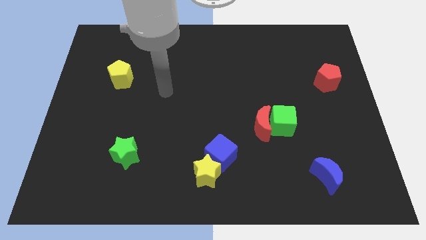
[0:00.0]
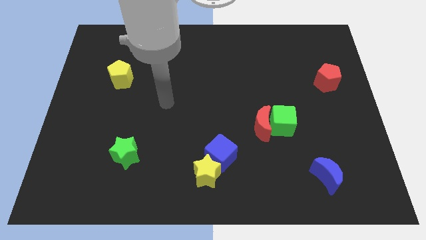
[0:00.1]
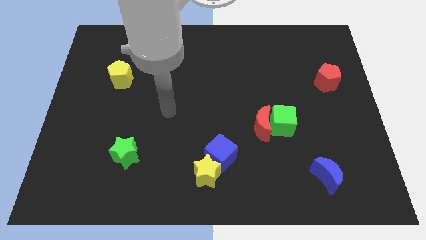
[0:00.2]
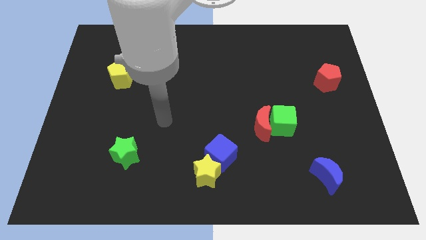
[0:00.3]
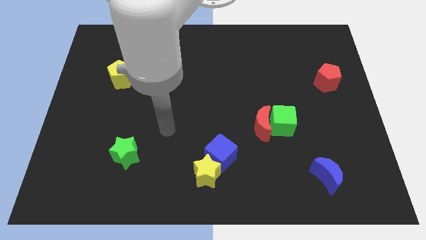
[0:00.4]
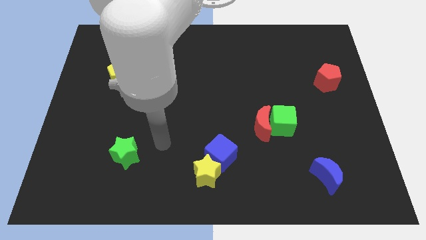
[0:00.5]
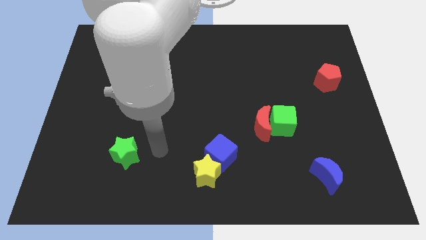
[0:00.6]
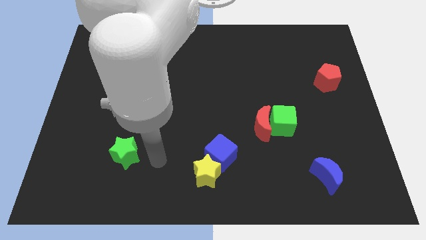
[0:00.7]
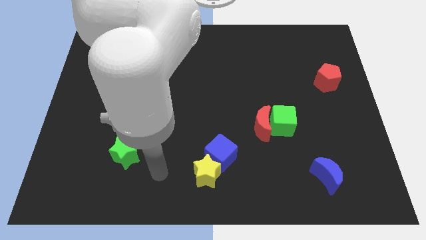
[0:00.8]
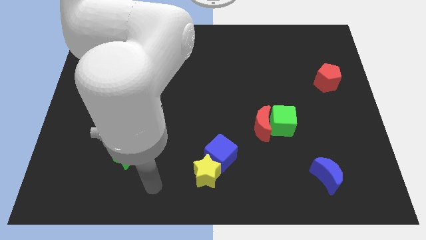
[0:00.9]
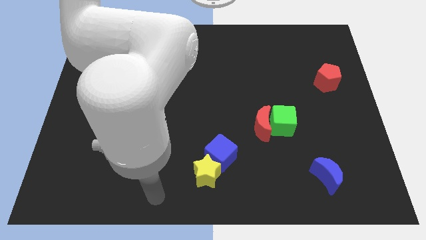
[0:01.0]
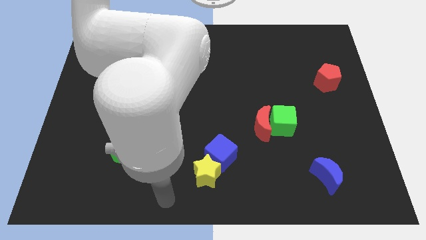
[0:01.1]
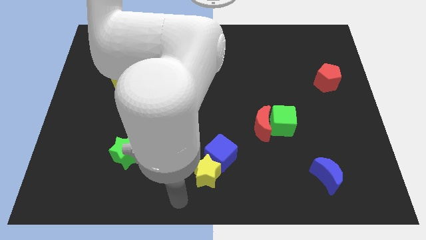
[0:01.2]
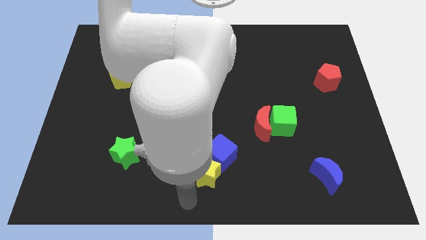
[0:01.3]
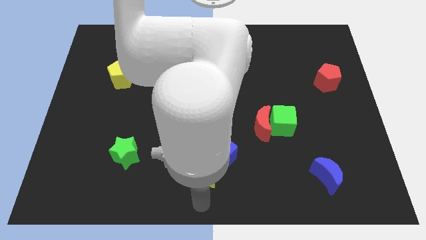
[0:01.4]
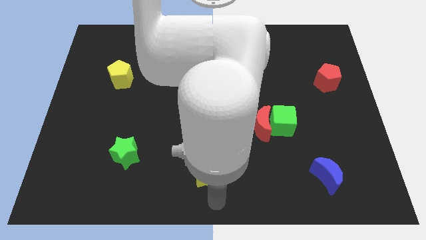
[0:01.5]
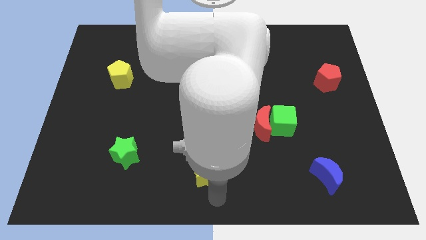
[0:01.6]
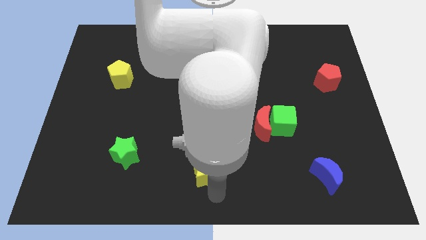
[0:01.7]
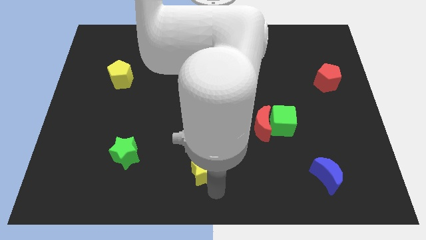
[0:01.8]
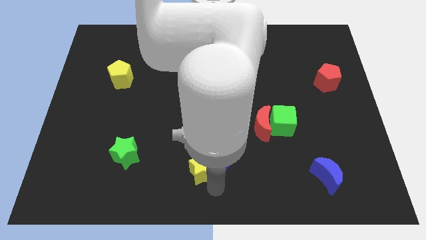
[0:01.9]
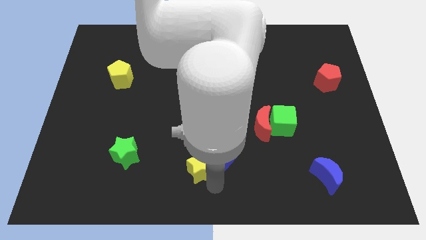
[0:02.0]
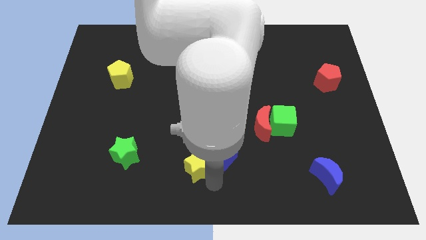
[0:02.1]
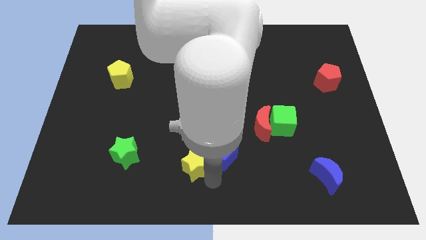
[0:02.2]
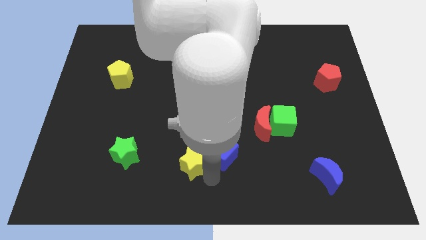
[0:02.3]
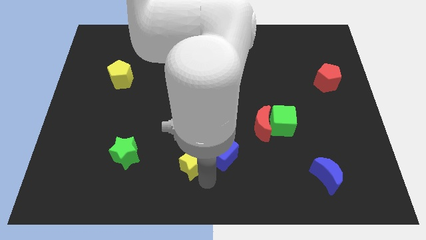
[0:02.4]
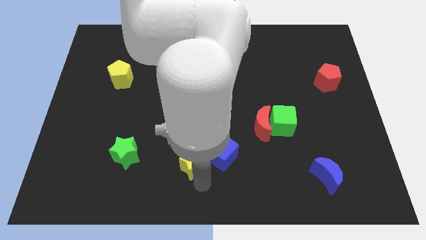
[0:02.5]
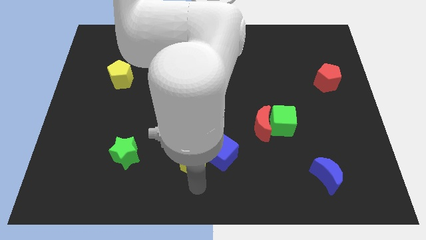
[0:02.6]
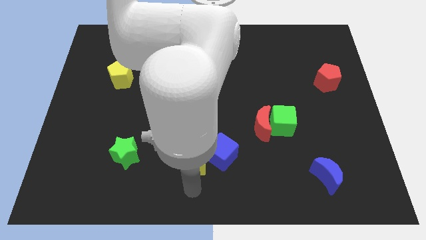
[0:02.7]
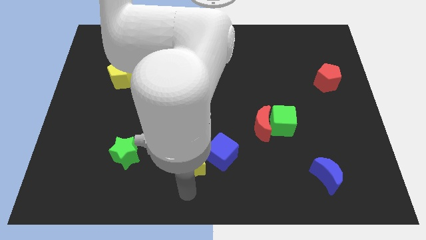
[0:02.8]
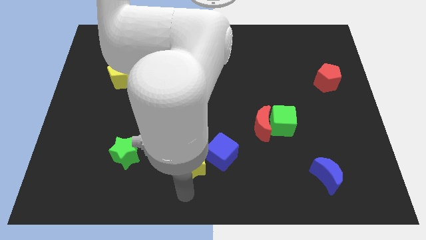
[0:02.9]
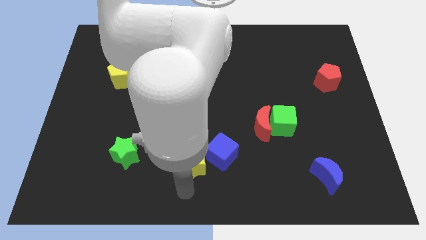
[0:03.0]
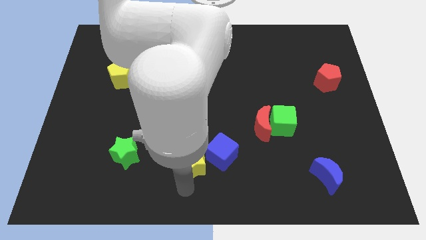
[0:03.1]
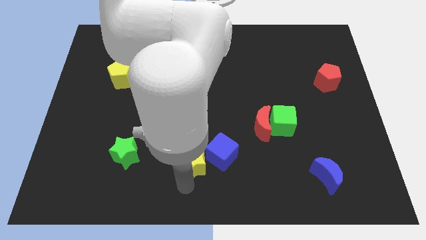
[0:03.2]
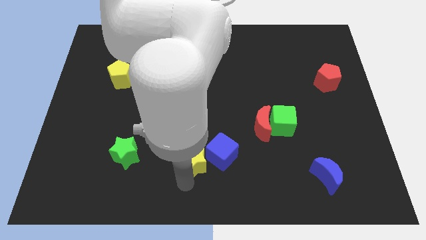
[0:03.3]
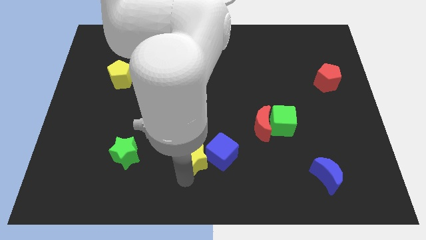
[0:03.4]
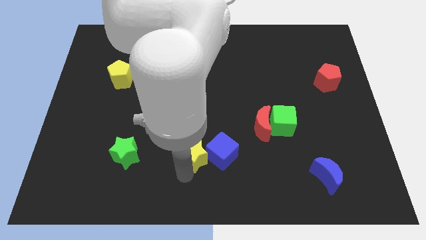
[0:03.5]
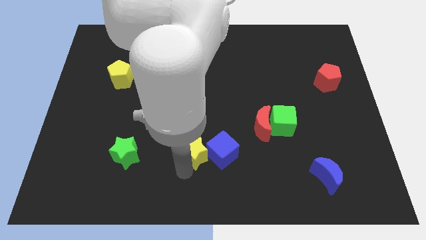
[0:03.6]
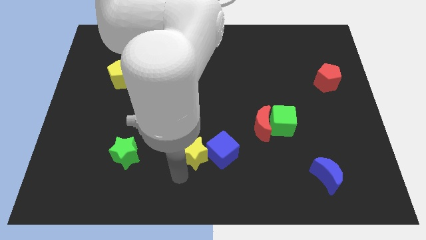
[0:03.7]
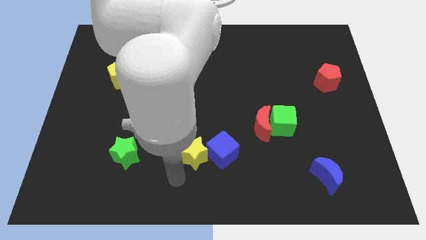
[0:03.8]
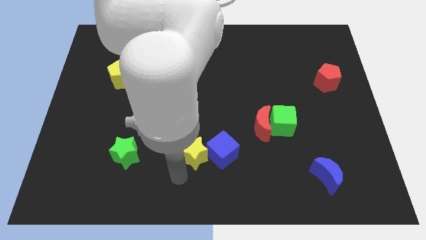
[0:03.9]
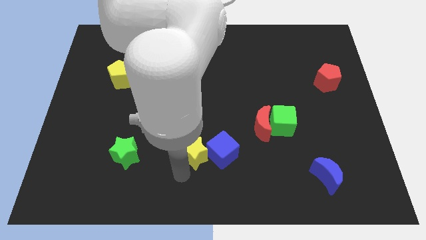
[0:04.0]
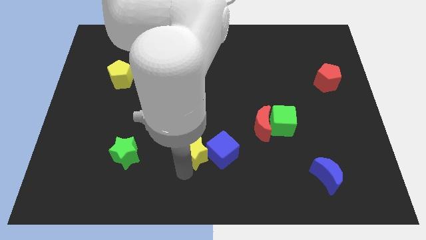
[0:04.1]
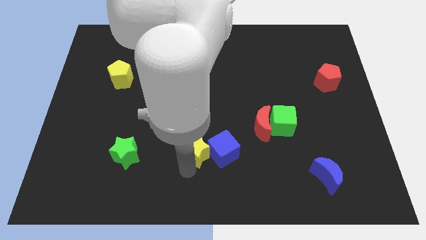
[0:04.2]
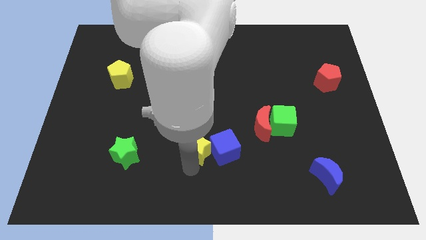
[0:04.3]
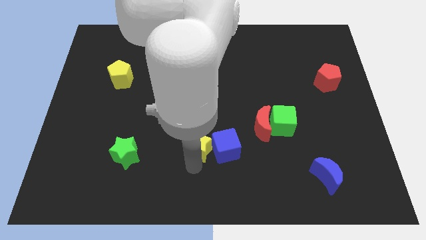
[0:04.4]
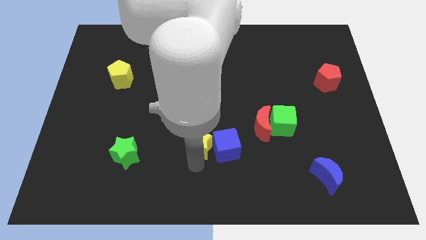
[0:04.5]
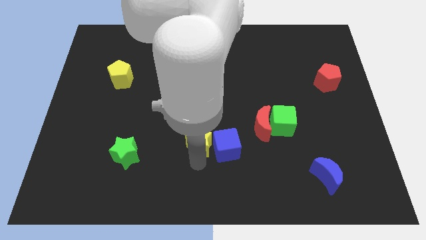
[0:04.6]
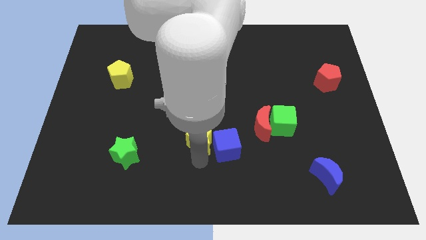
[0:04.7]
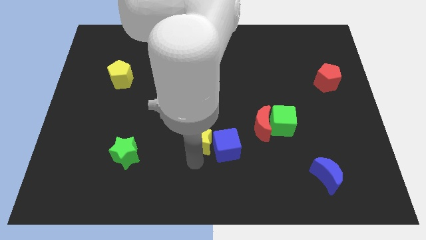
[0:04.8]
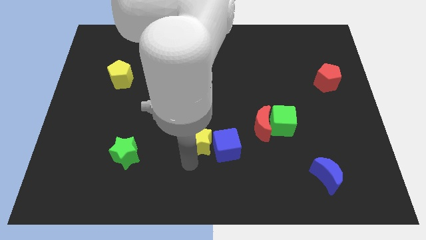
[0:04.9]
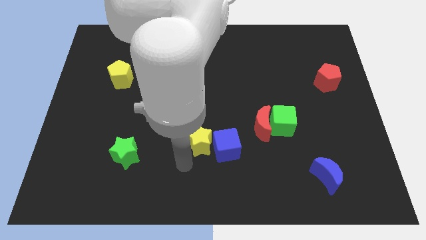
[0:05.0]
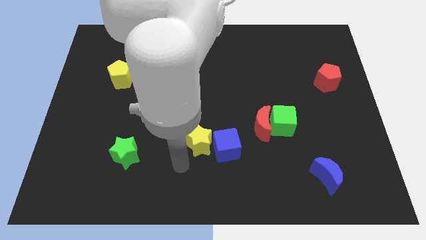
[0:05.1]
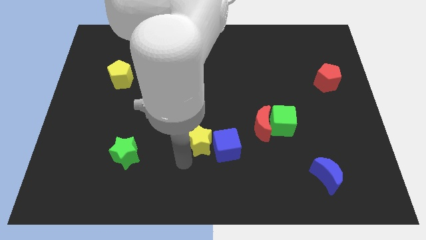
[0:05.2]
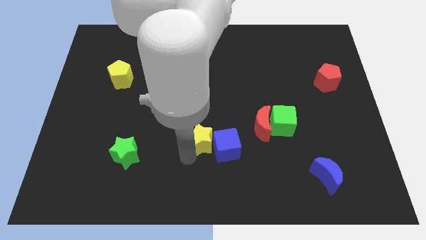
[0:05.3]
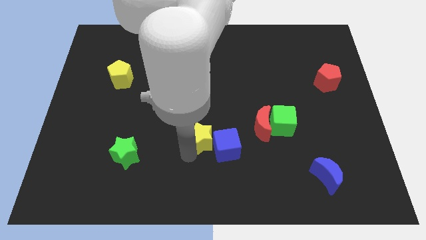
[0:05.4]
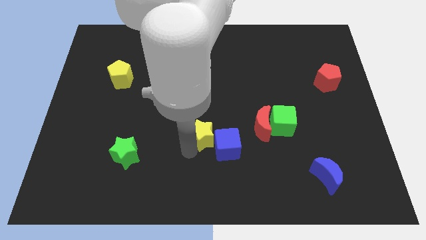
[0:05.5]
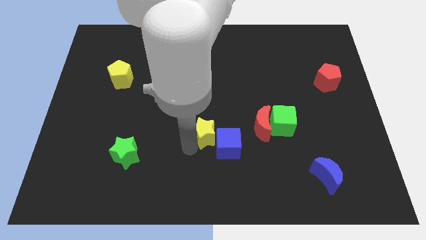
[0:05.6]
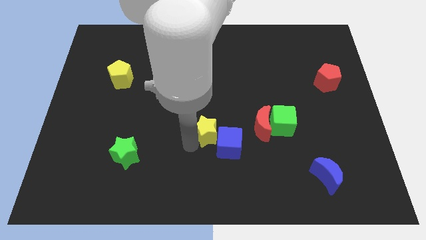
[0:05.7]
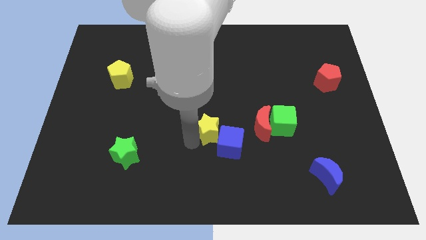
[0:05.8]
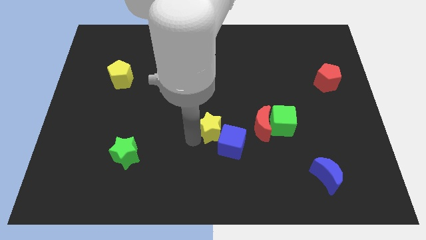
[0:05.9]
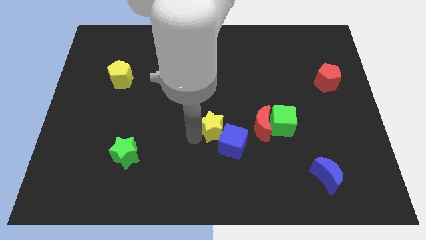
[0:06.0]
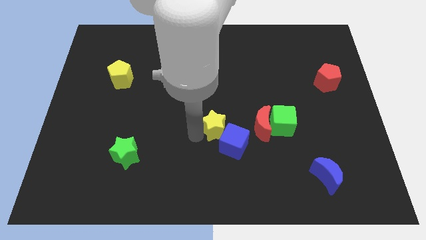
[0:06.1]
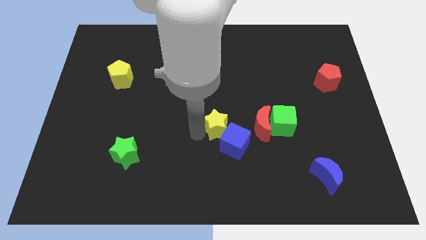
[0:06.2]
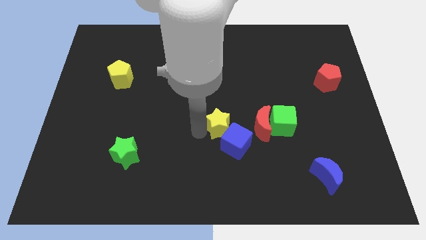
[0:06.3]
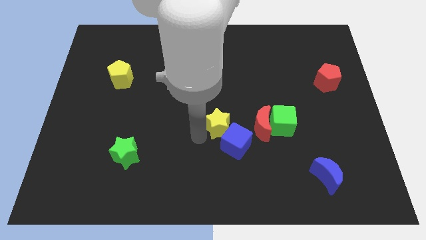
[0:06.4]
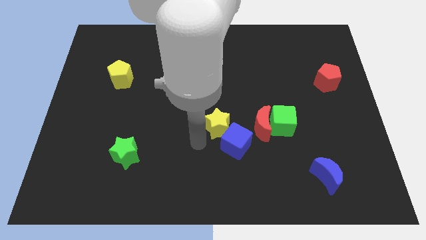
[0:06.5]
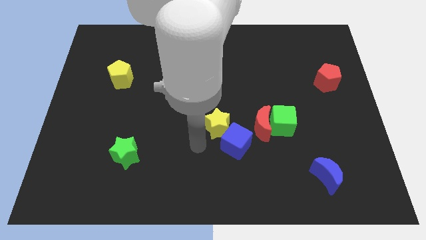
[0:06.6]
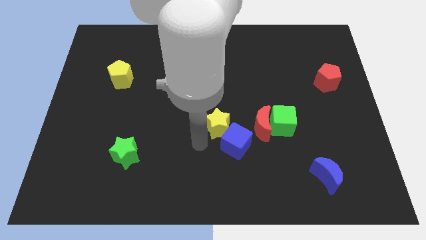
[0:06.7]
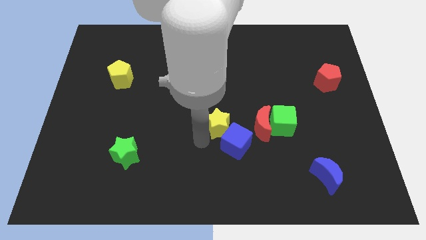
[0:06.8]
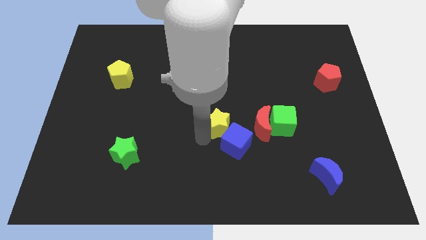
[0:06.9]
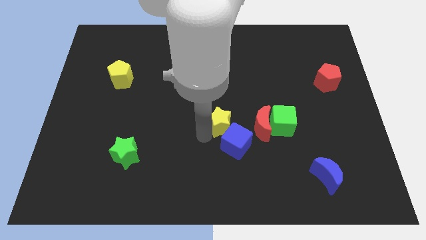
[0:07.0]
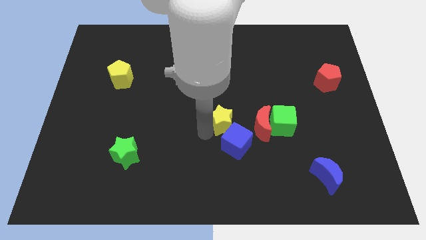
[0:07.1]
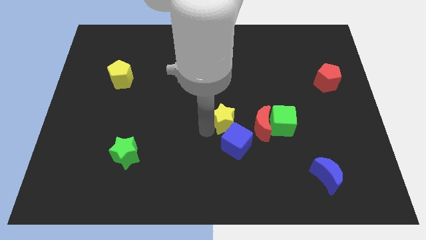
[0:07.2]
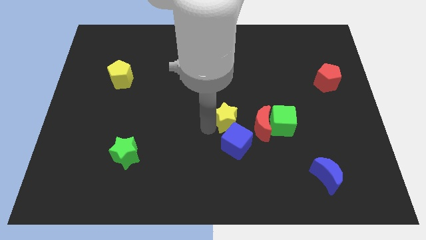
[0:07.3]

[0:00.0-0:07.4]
put the yellow star to the top left of the red moon
